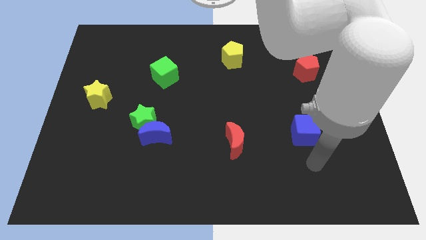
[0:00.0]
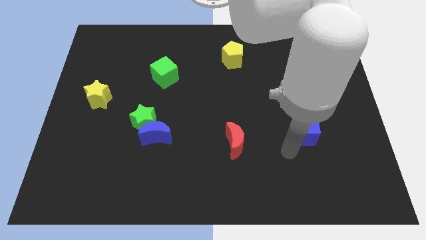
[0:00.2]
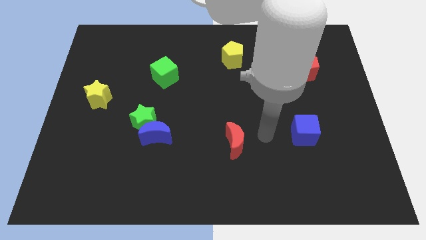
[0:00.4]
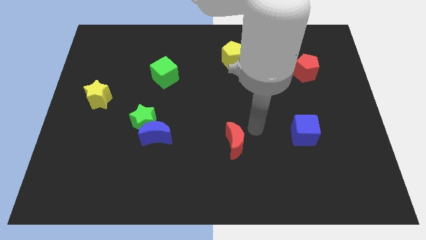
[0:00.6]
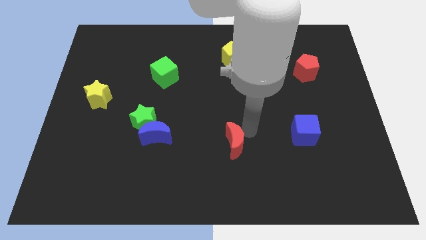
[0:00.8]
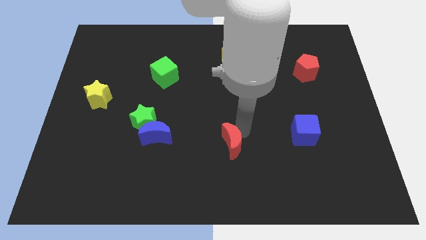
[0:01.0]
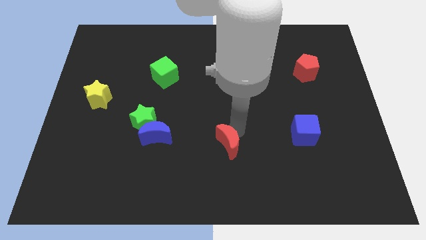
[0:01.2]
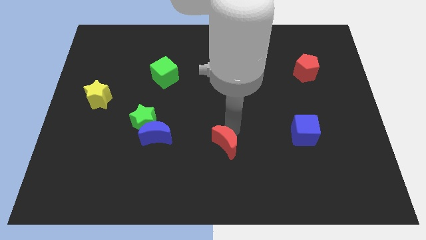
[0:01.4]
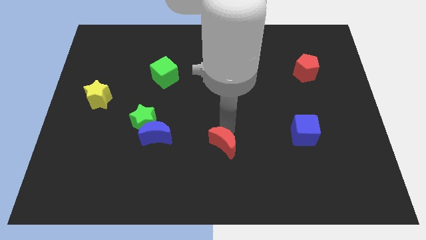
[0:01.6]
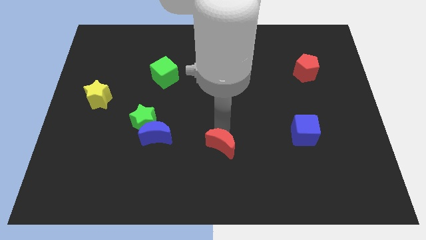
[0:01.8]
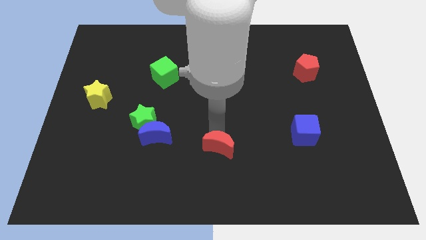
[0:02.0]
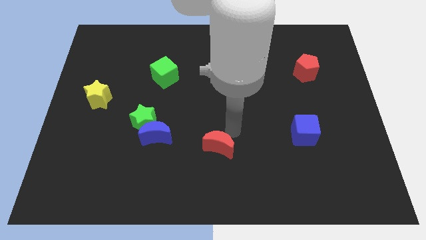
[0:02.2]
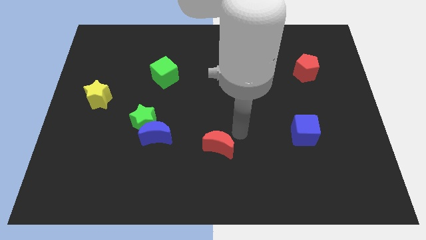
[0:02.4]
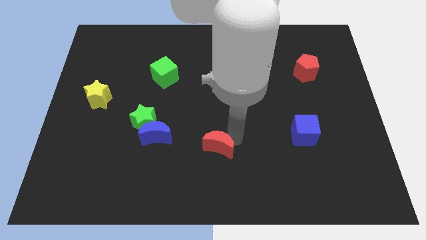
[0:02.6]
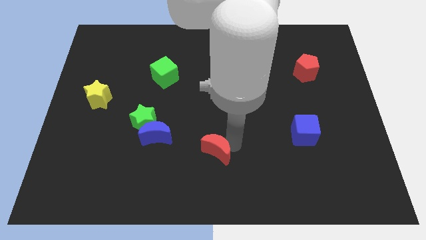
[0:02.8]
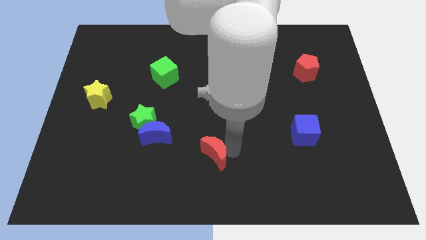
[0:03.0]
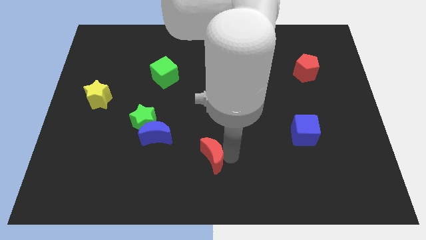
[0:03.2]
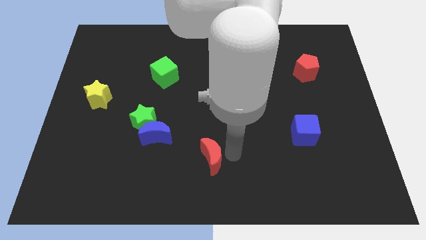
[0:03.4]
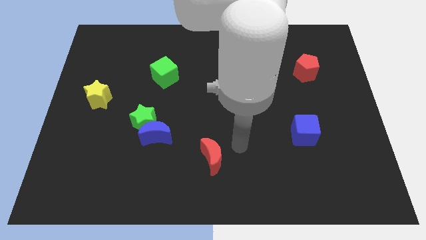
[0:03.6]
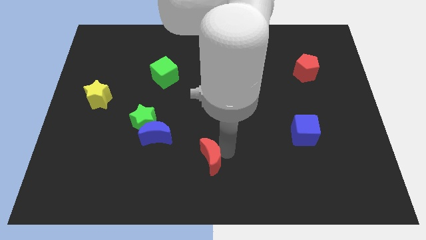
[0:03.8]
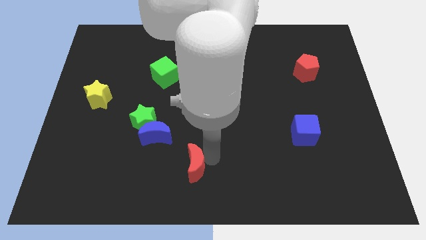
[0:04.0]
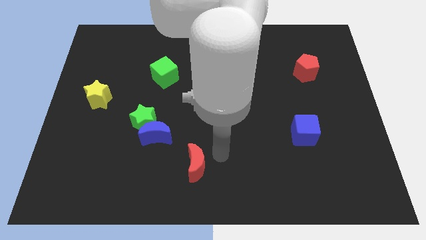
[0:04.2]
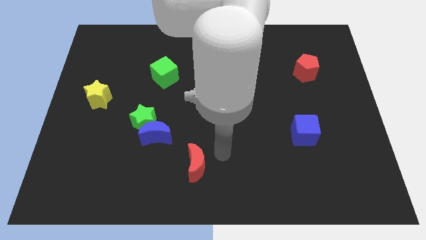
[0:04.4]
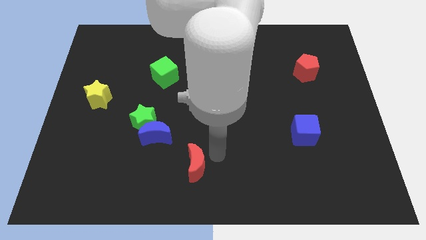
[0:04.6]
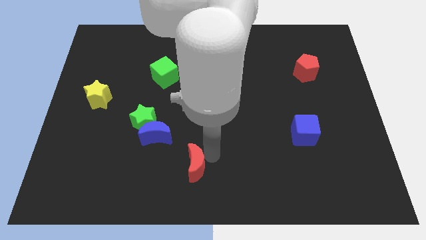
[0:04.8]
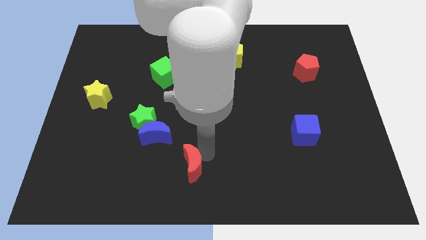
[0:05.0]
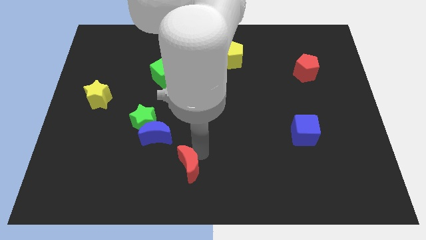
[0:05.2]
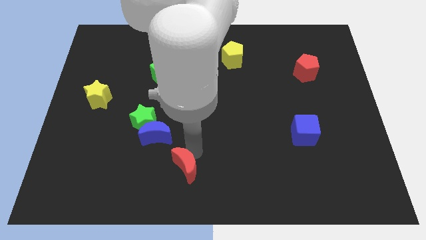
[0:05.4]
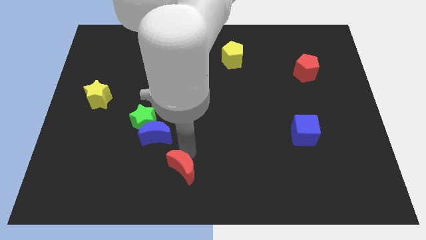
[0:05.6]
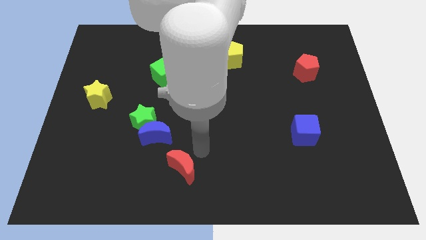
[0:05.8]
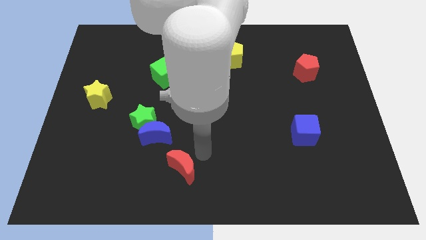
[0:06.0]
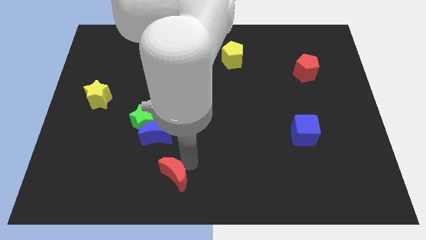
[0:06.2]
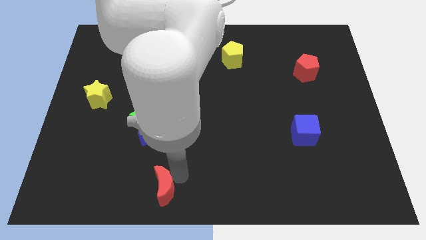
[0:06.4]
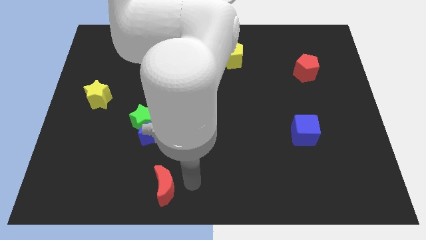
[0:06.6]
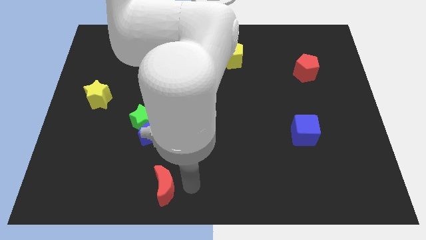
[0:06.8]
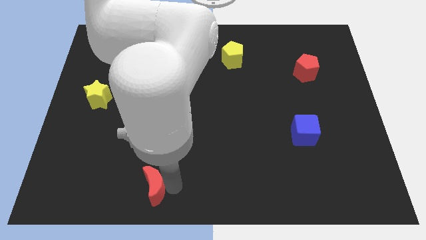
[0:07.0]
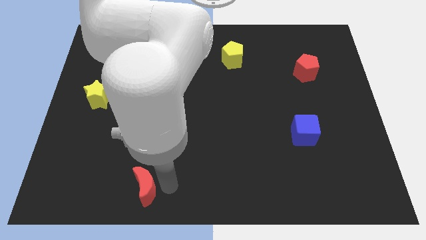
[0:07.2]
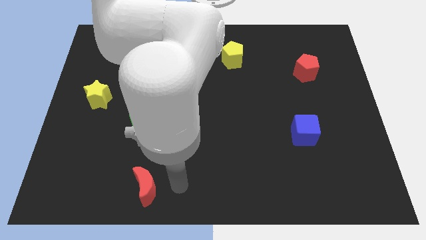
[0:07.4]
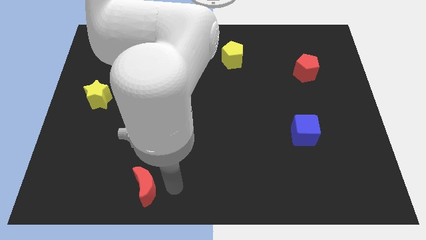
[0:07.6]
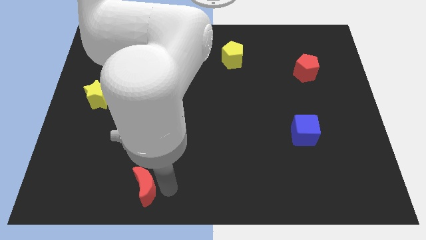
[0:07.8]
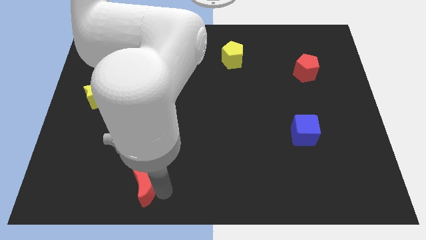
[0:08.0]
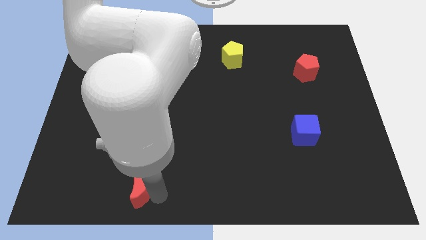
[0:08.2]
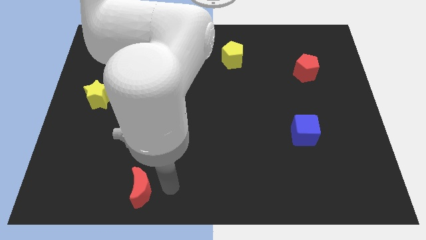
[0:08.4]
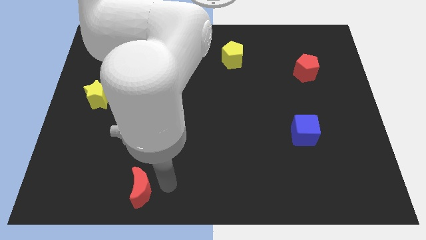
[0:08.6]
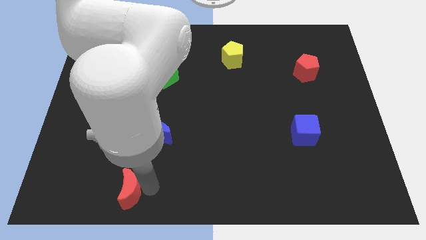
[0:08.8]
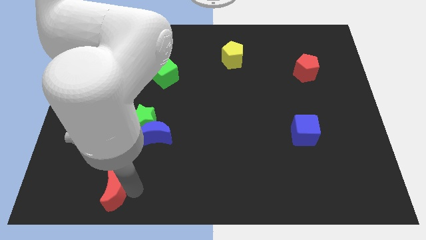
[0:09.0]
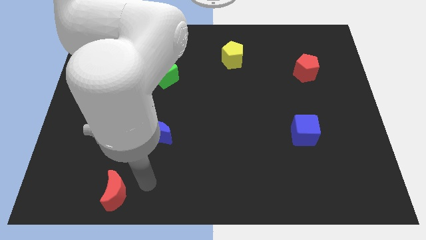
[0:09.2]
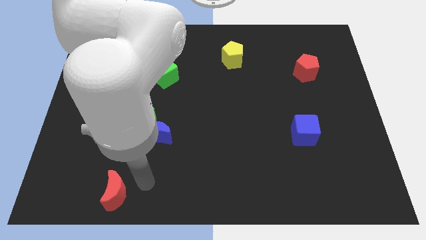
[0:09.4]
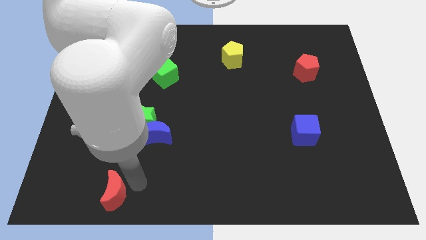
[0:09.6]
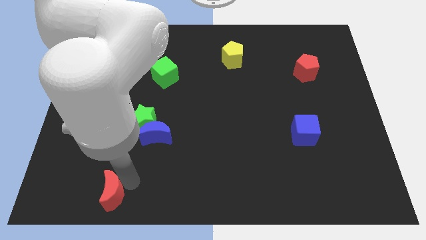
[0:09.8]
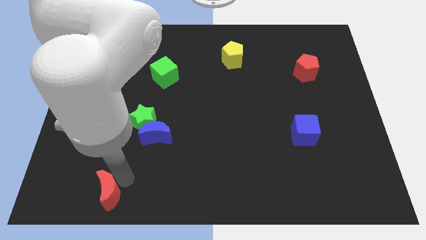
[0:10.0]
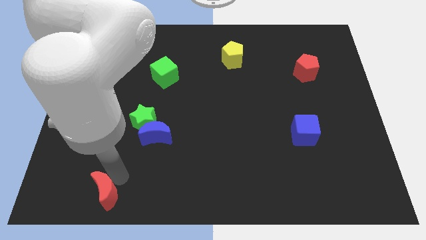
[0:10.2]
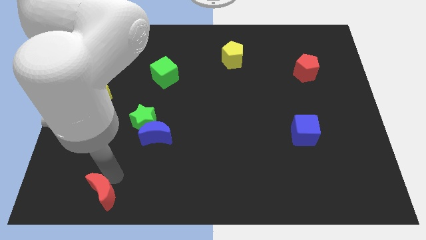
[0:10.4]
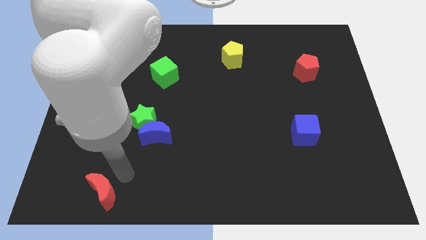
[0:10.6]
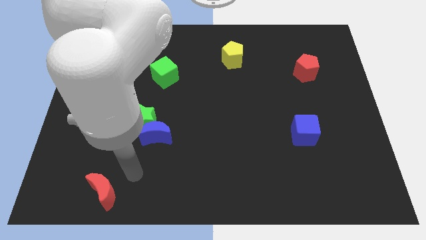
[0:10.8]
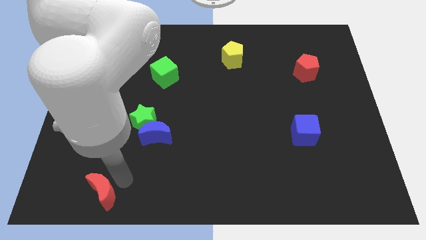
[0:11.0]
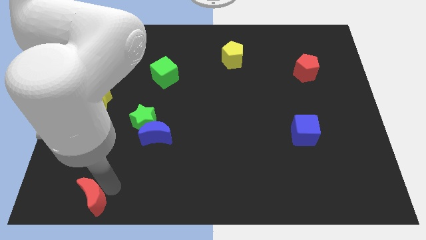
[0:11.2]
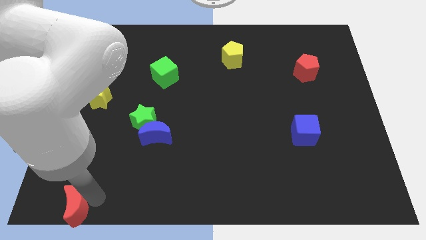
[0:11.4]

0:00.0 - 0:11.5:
push the red moon to the lower left corner

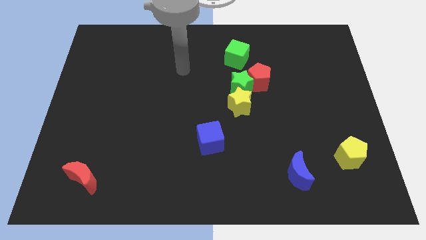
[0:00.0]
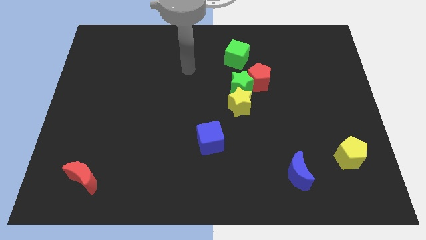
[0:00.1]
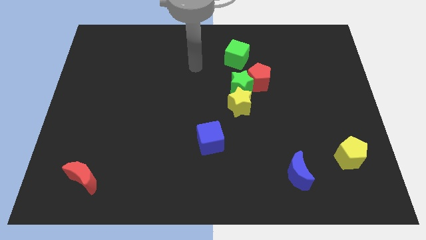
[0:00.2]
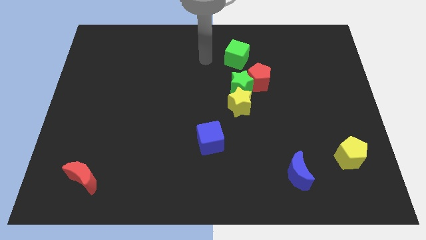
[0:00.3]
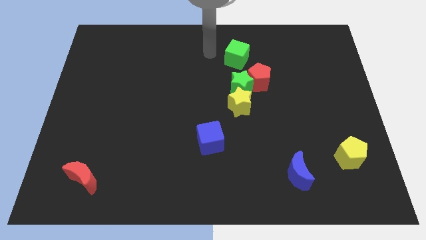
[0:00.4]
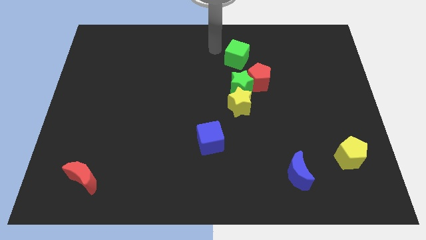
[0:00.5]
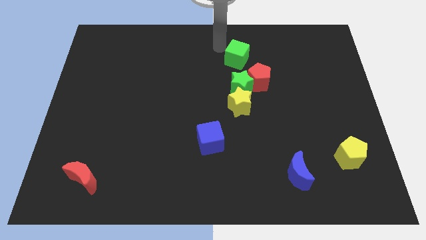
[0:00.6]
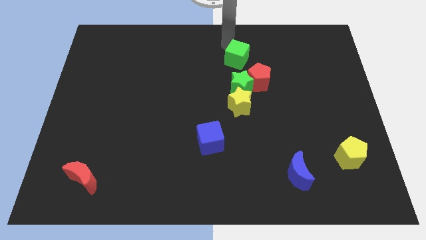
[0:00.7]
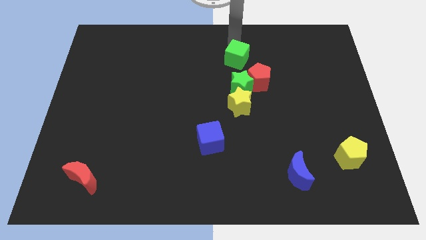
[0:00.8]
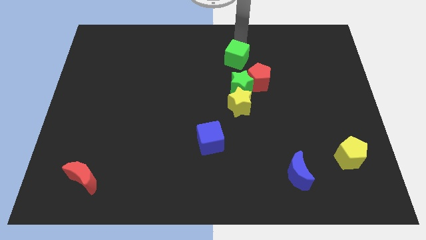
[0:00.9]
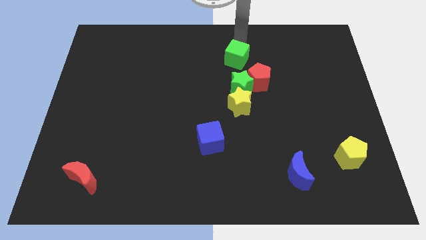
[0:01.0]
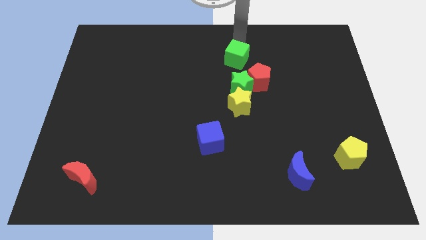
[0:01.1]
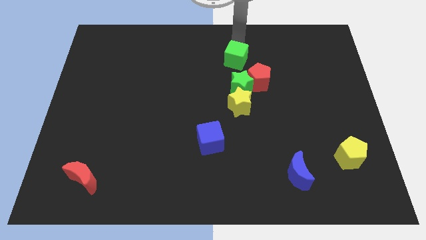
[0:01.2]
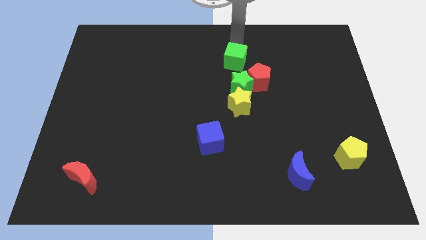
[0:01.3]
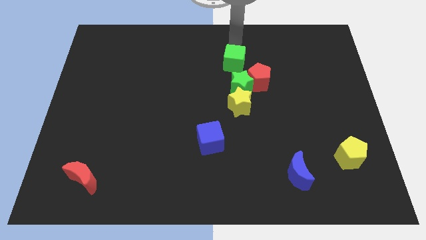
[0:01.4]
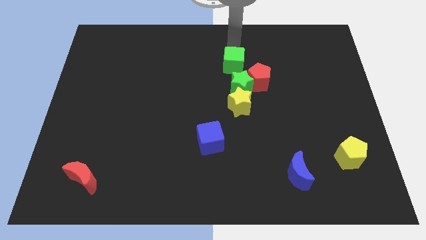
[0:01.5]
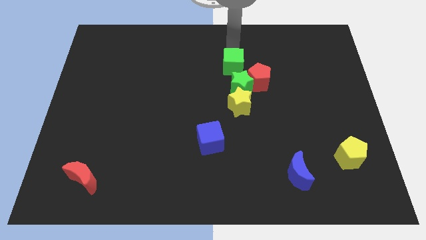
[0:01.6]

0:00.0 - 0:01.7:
put the green cube to the center
